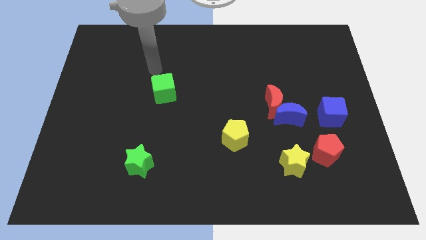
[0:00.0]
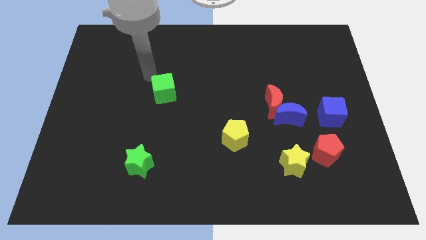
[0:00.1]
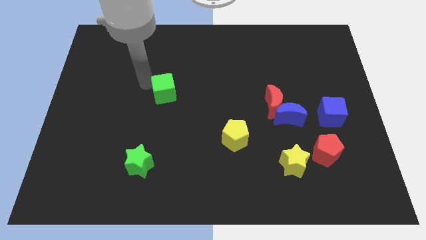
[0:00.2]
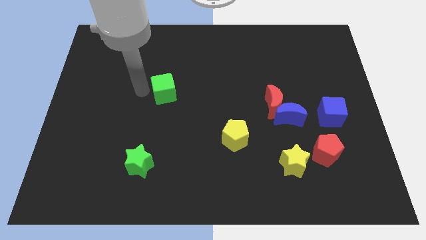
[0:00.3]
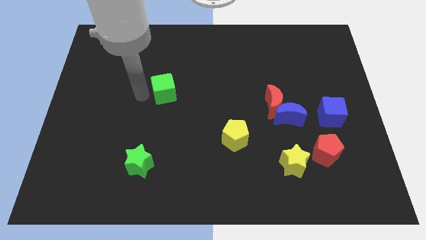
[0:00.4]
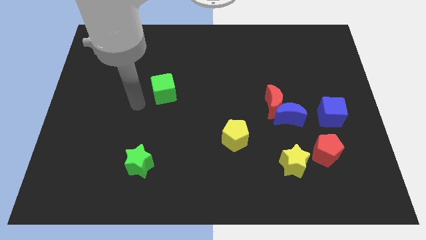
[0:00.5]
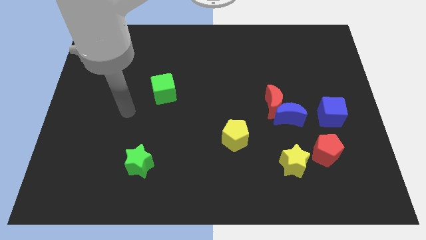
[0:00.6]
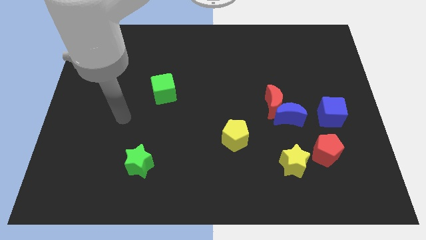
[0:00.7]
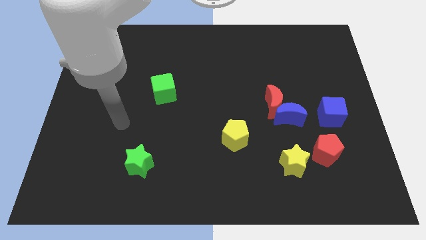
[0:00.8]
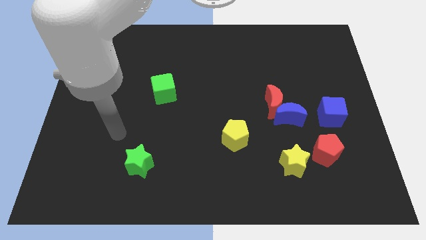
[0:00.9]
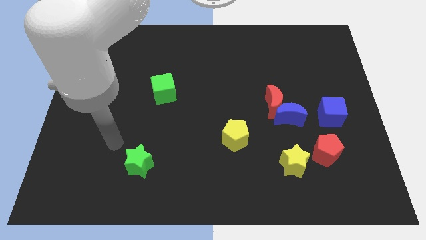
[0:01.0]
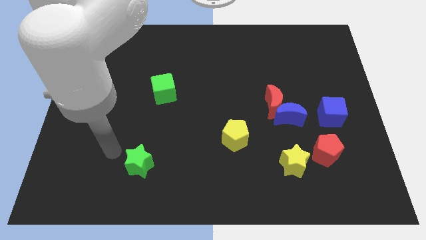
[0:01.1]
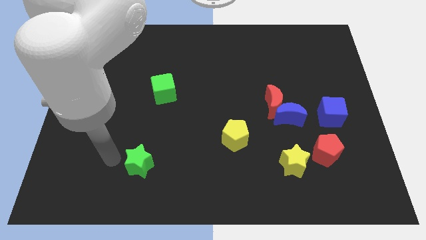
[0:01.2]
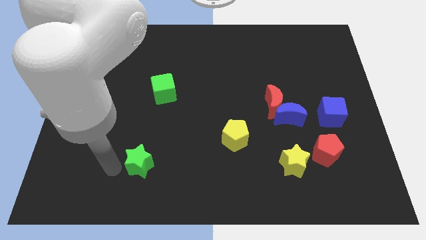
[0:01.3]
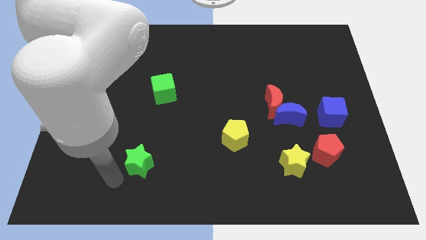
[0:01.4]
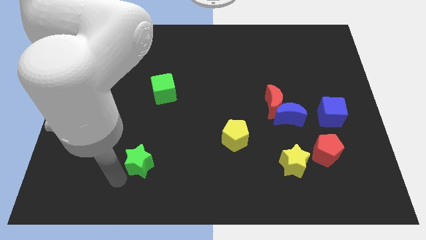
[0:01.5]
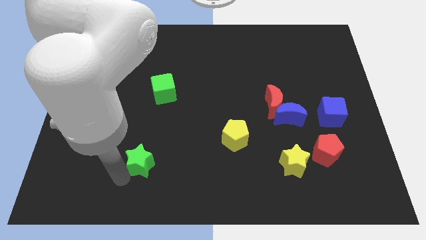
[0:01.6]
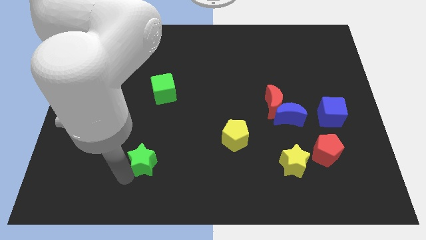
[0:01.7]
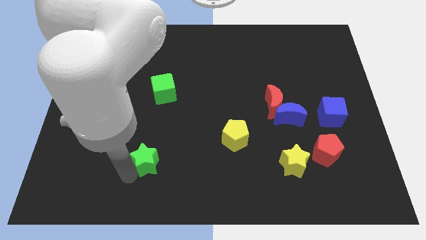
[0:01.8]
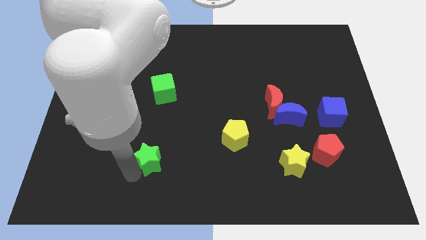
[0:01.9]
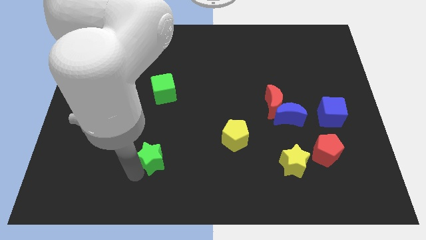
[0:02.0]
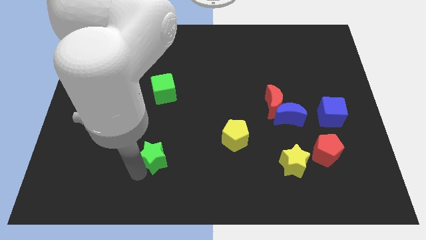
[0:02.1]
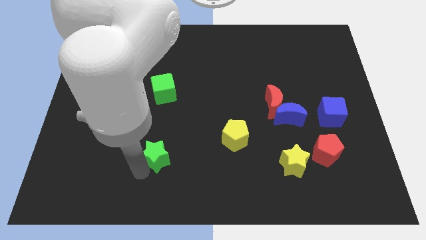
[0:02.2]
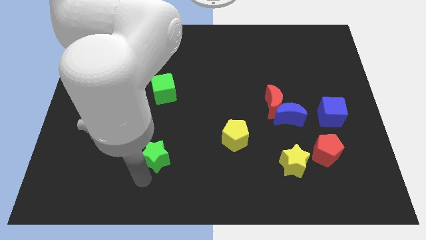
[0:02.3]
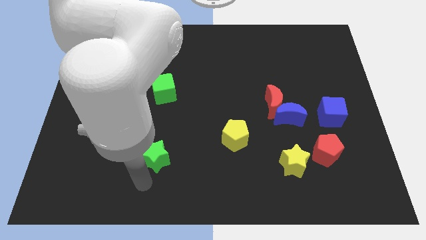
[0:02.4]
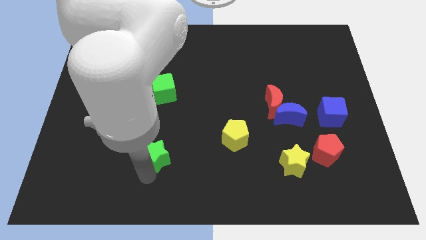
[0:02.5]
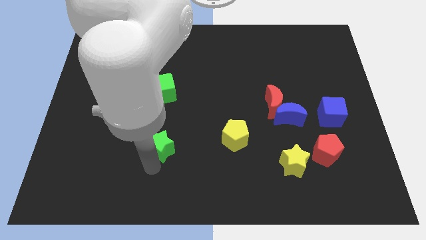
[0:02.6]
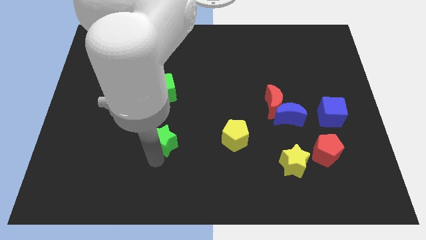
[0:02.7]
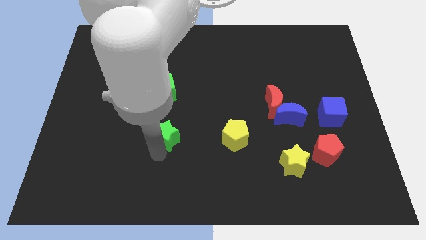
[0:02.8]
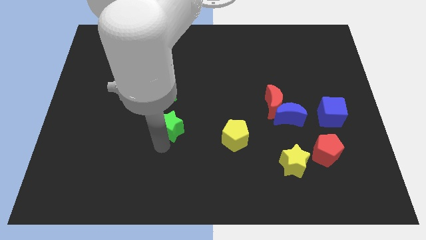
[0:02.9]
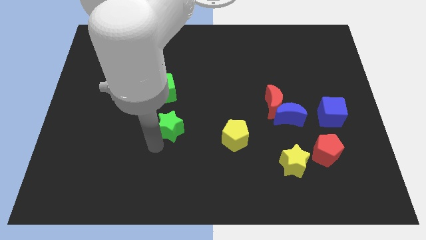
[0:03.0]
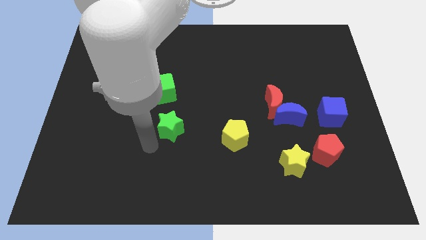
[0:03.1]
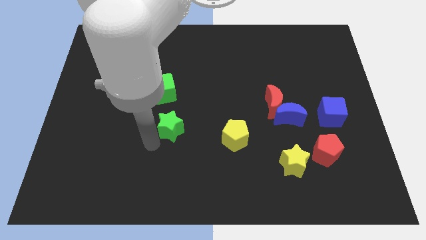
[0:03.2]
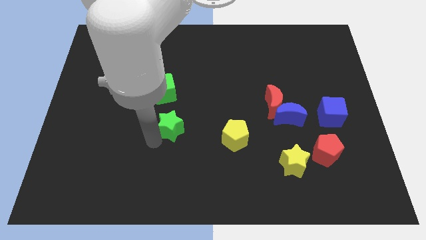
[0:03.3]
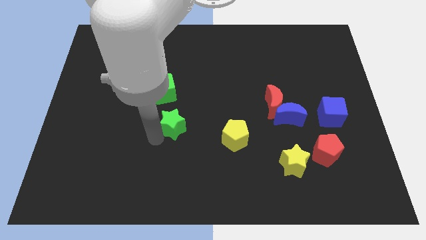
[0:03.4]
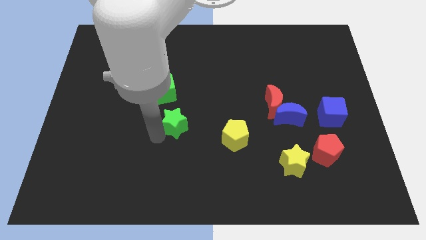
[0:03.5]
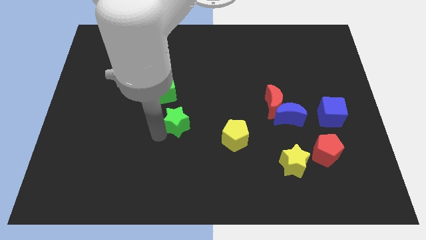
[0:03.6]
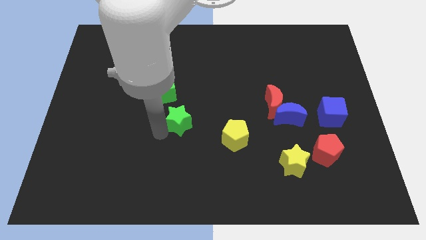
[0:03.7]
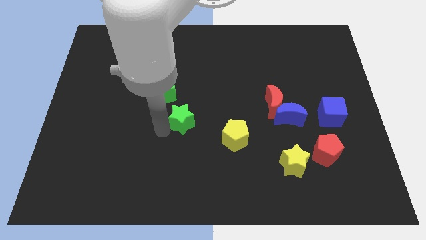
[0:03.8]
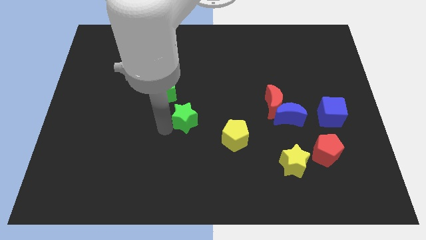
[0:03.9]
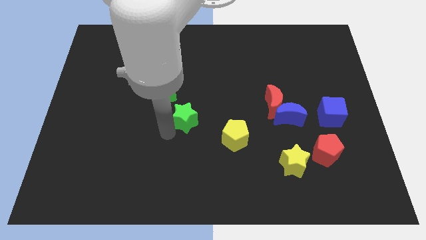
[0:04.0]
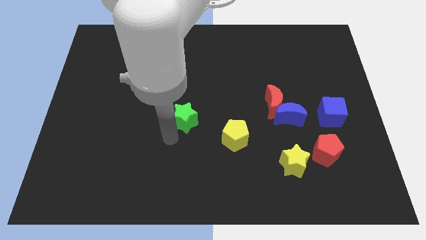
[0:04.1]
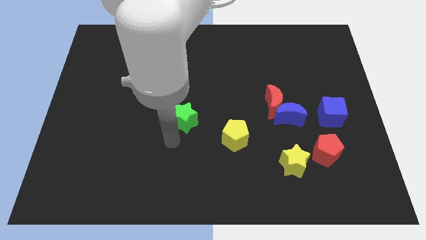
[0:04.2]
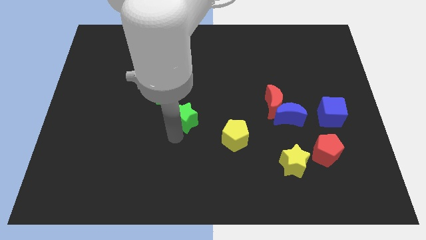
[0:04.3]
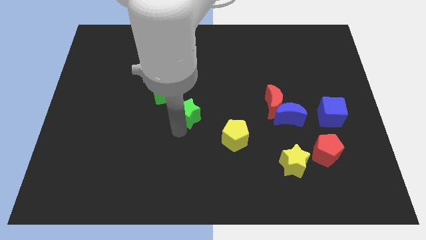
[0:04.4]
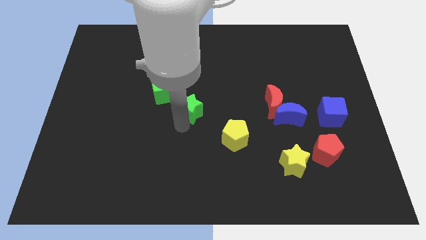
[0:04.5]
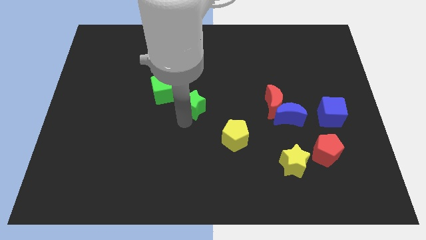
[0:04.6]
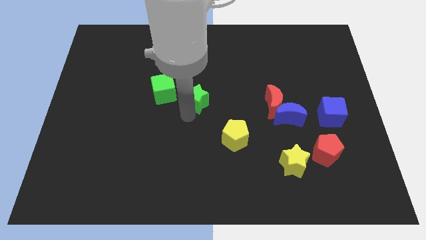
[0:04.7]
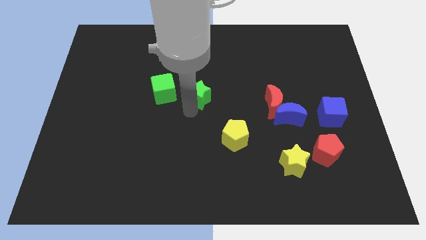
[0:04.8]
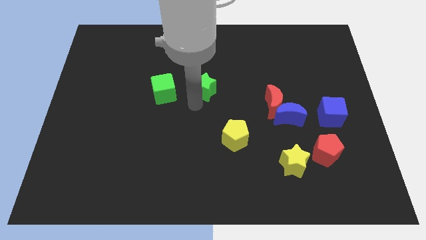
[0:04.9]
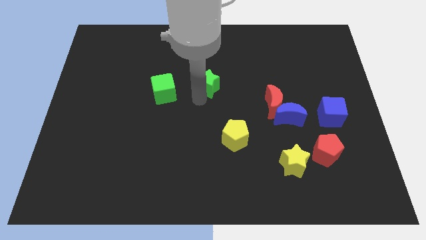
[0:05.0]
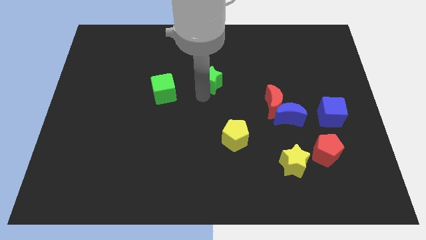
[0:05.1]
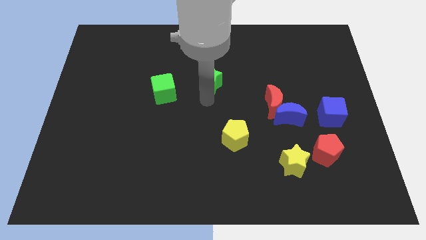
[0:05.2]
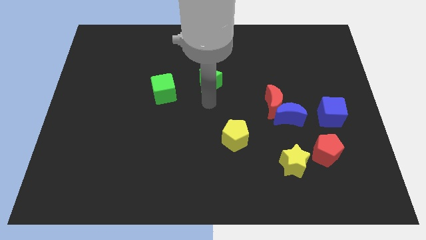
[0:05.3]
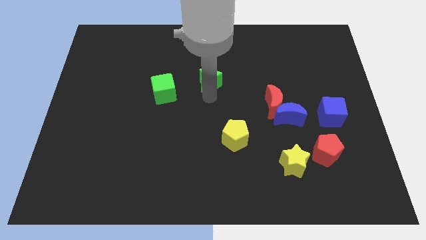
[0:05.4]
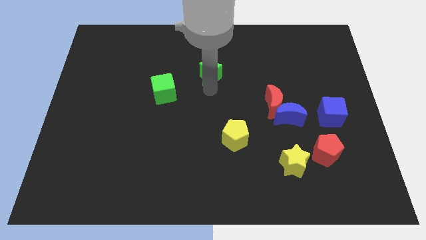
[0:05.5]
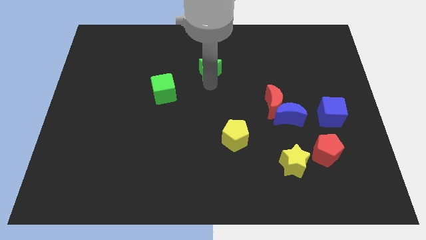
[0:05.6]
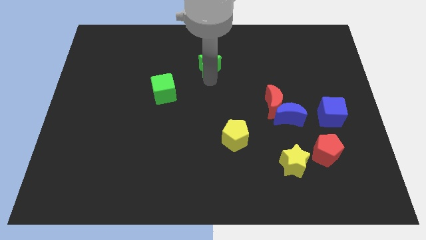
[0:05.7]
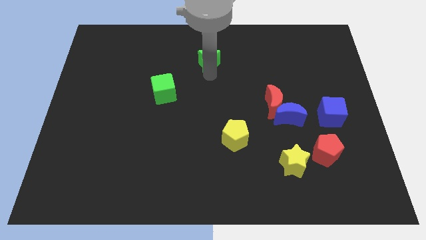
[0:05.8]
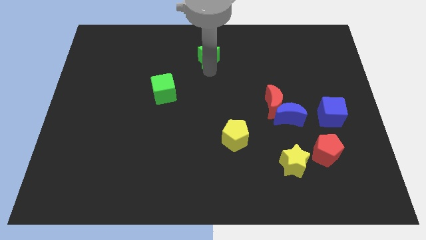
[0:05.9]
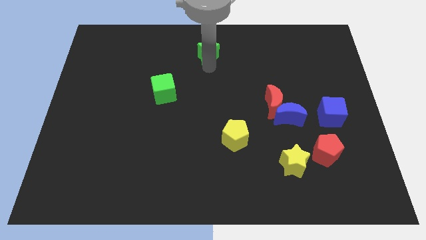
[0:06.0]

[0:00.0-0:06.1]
move the green star to the towards your base

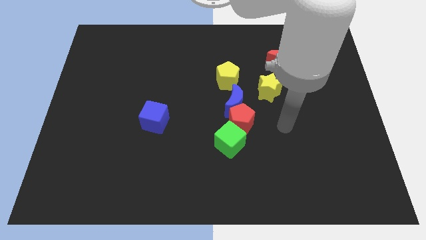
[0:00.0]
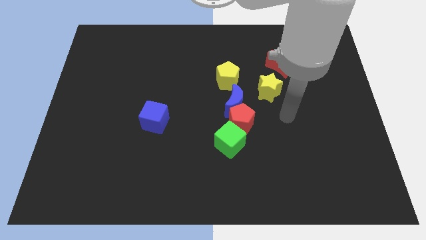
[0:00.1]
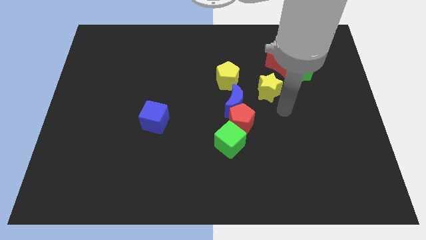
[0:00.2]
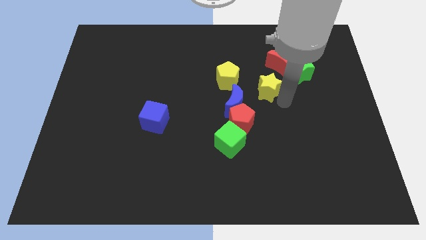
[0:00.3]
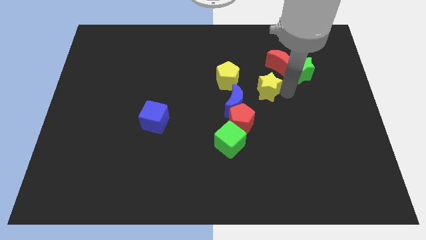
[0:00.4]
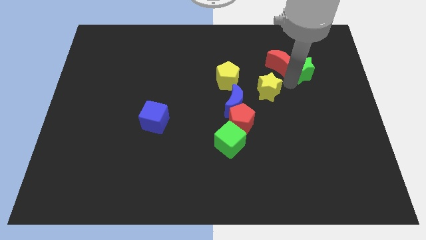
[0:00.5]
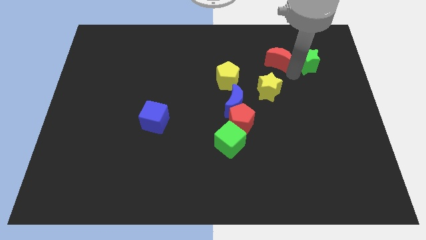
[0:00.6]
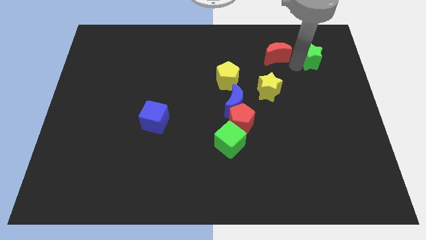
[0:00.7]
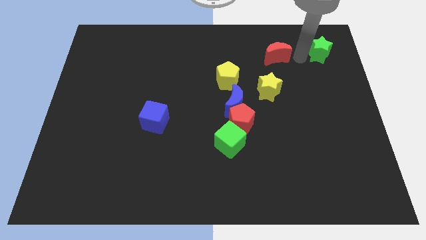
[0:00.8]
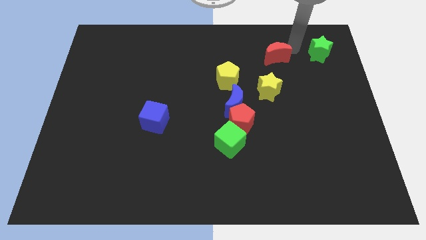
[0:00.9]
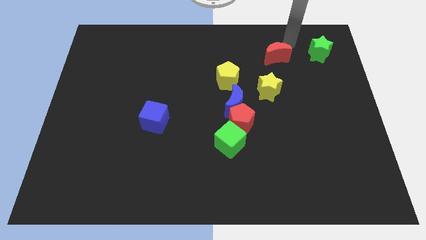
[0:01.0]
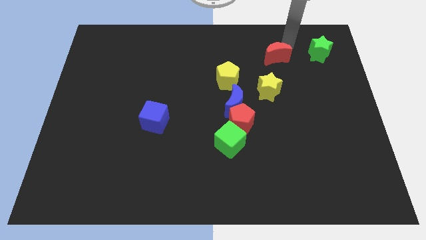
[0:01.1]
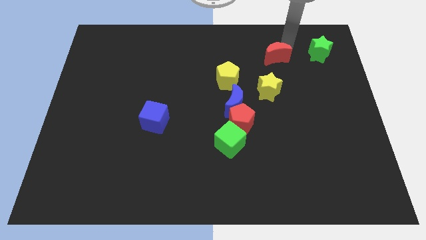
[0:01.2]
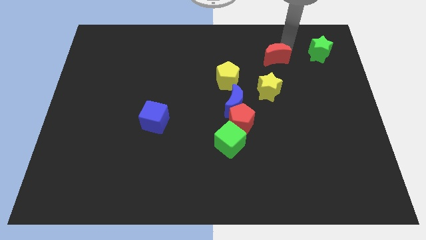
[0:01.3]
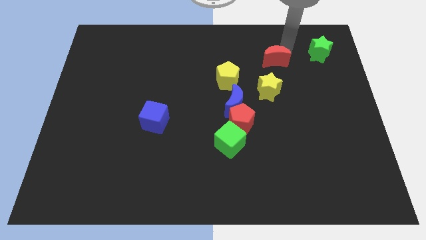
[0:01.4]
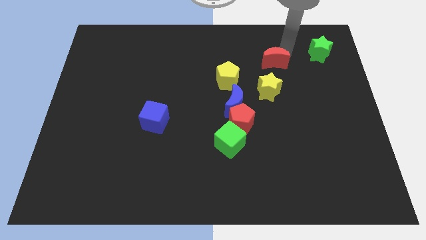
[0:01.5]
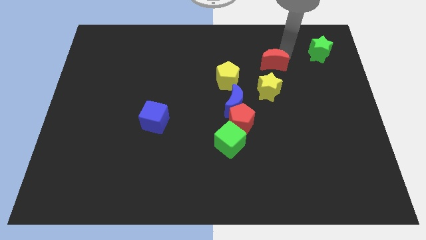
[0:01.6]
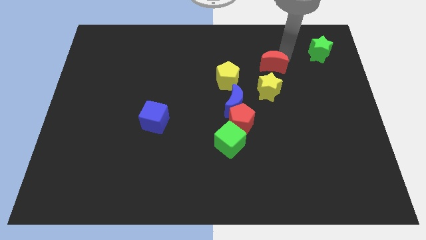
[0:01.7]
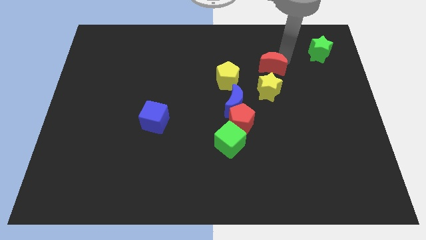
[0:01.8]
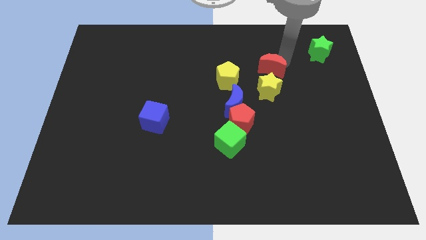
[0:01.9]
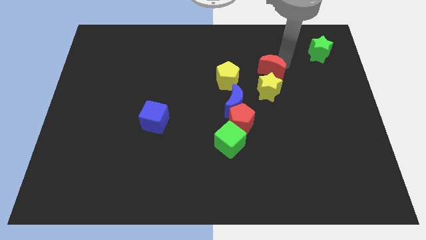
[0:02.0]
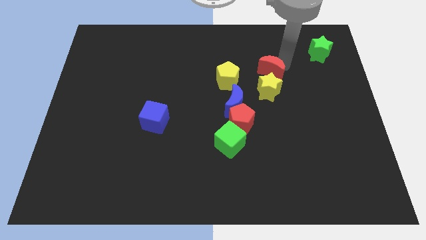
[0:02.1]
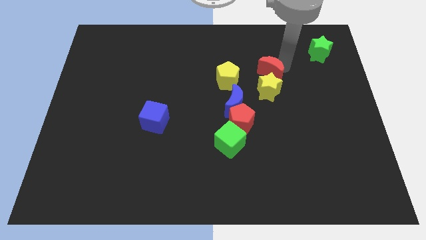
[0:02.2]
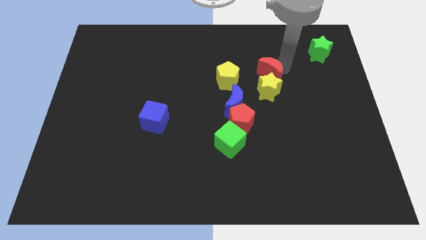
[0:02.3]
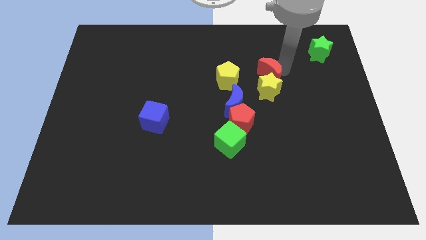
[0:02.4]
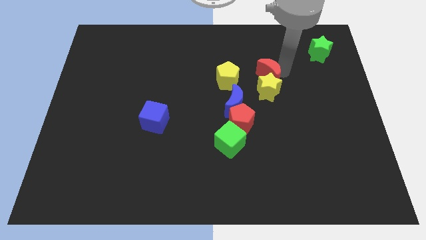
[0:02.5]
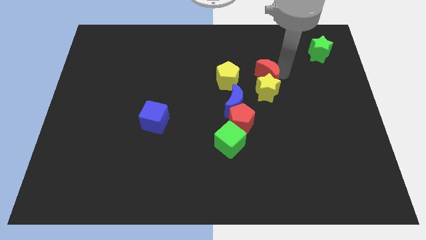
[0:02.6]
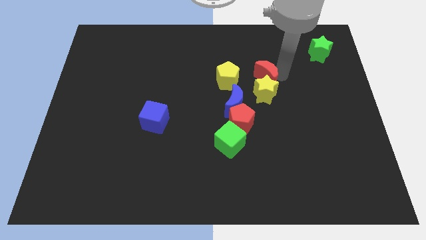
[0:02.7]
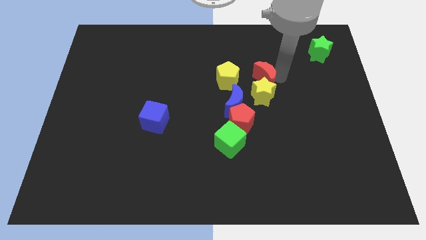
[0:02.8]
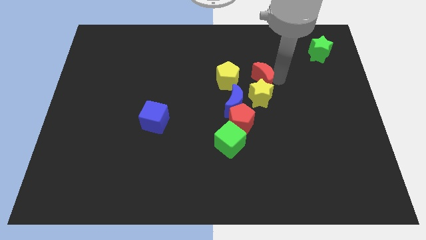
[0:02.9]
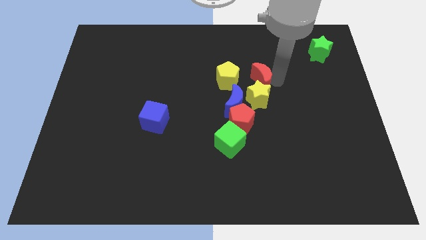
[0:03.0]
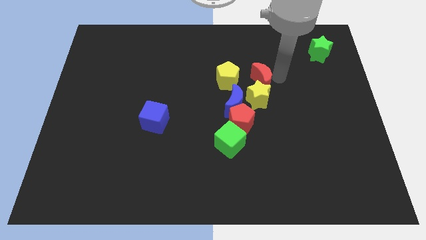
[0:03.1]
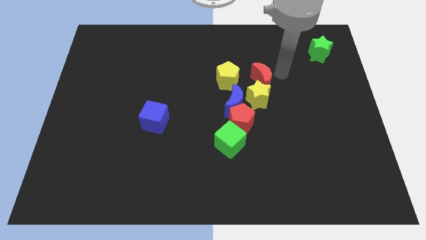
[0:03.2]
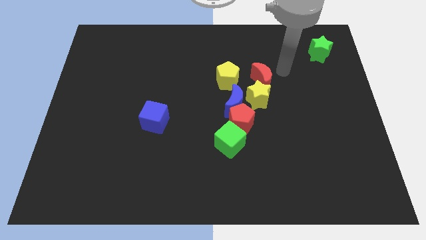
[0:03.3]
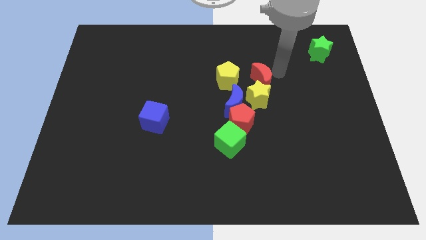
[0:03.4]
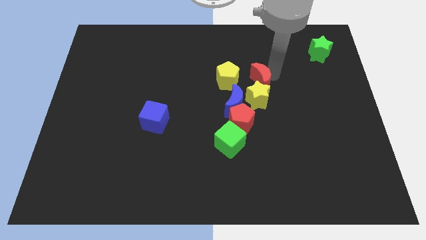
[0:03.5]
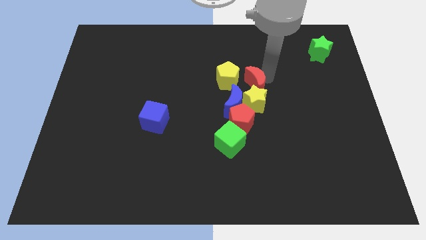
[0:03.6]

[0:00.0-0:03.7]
move the red moon to the middle
